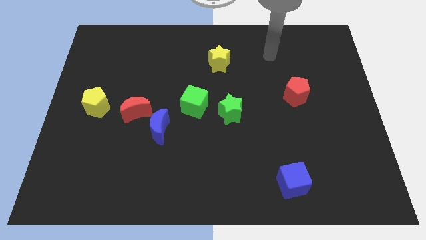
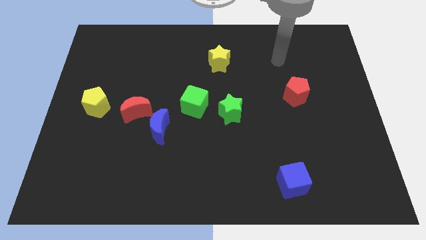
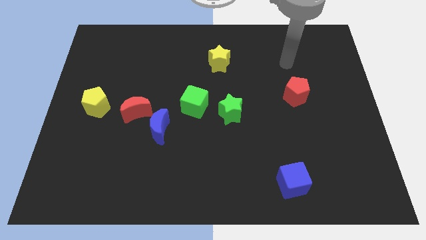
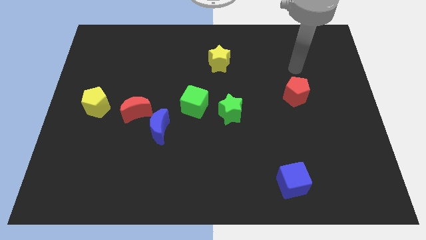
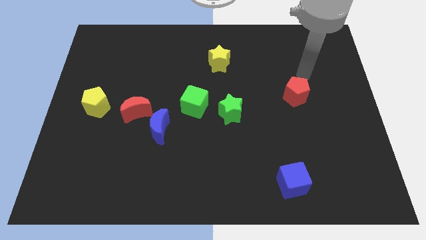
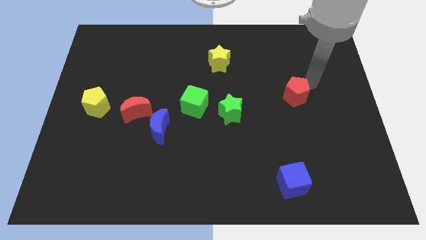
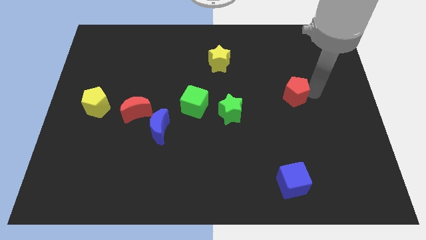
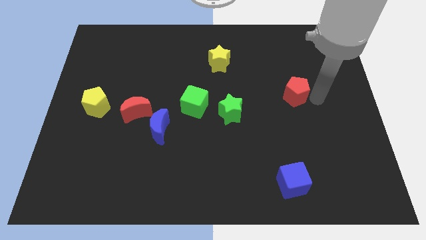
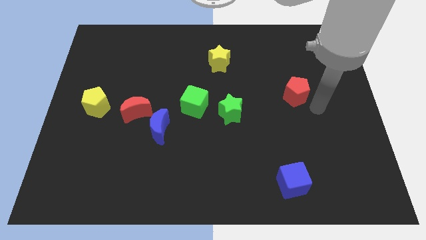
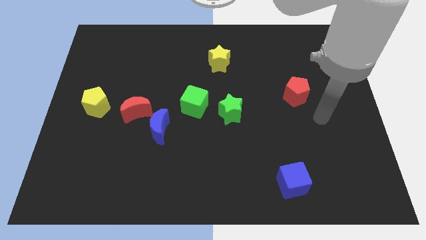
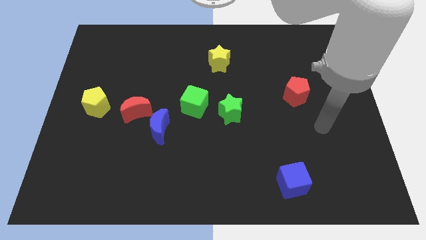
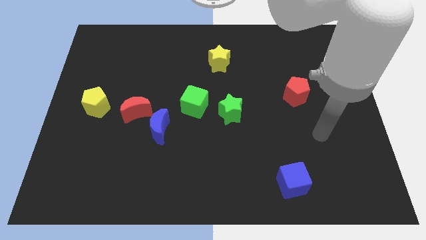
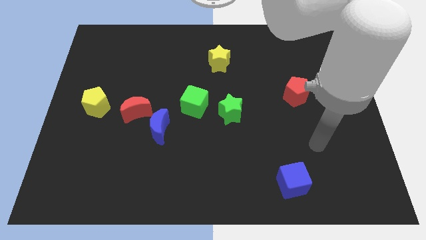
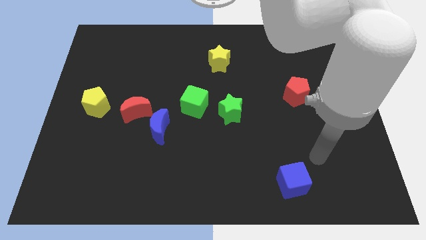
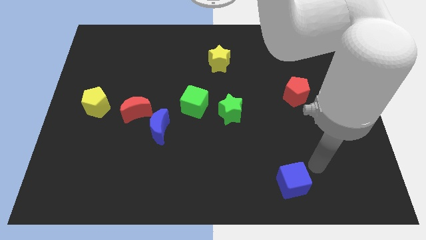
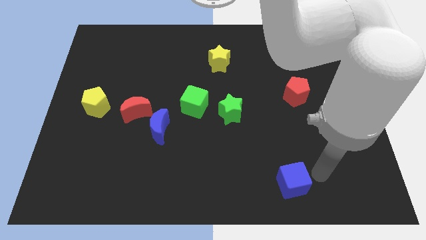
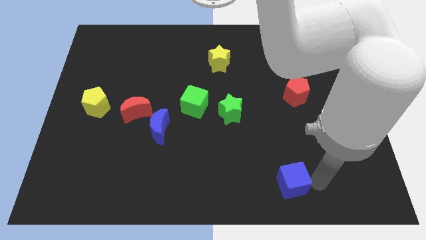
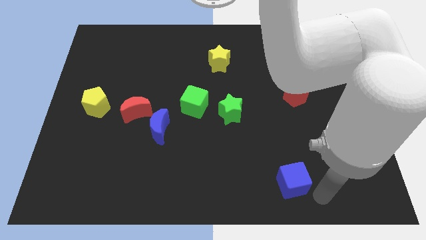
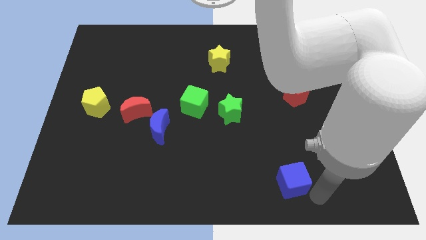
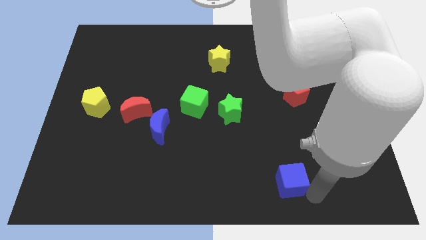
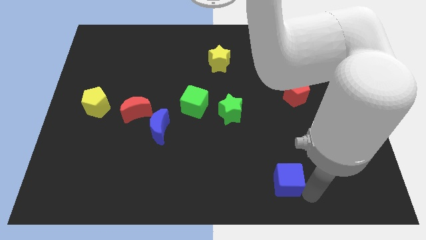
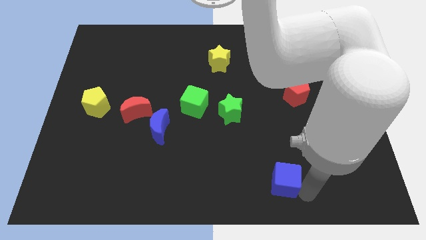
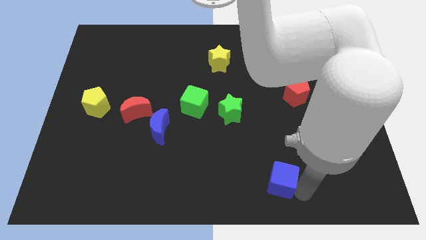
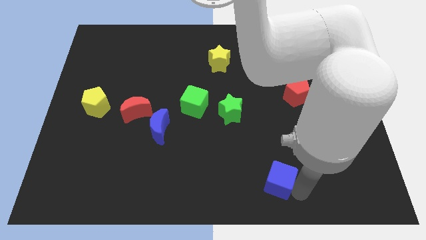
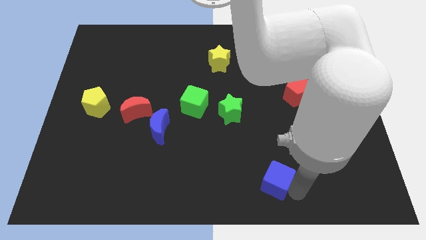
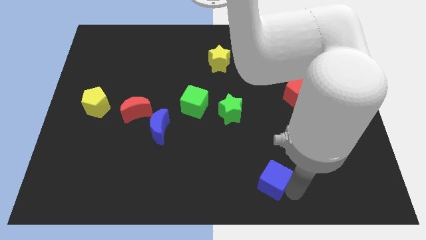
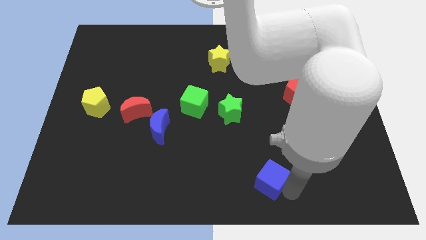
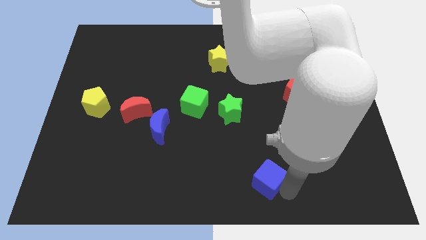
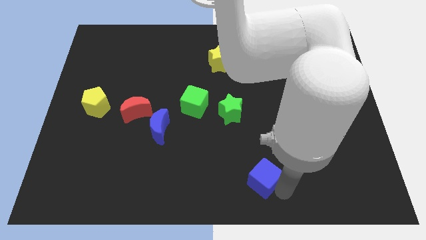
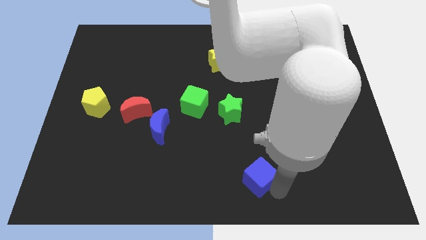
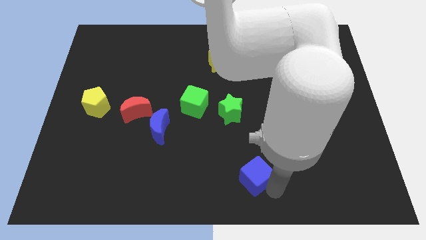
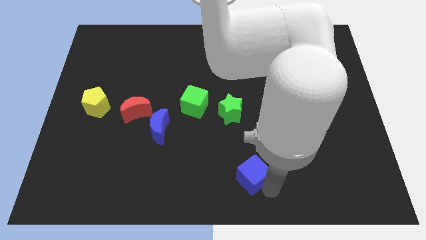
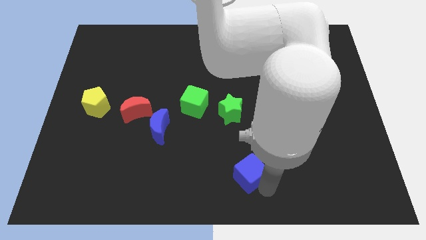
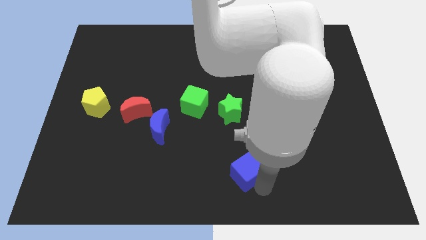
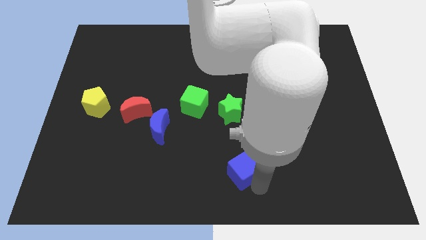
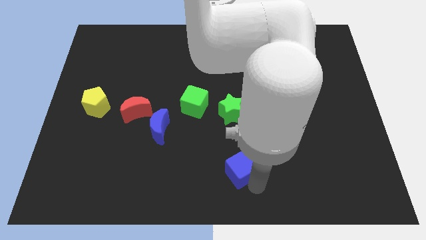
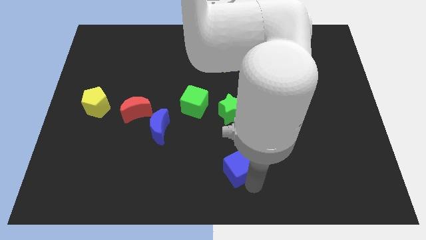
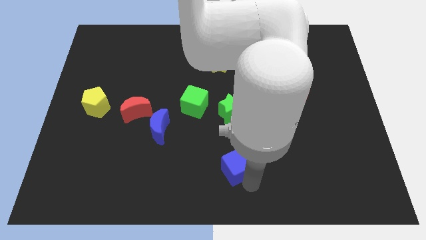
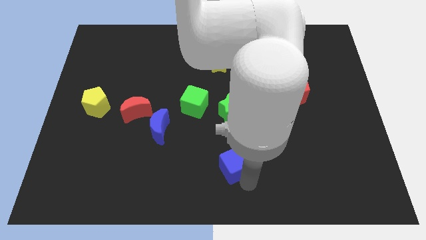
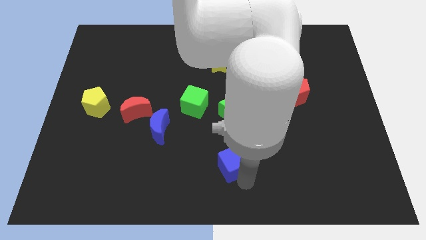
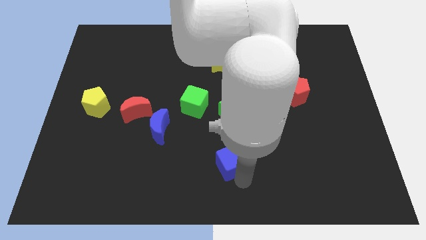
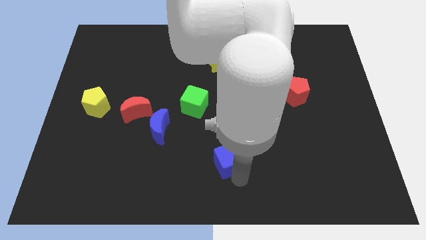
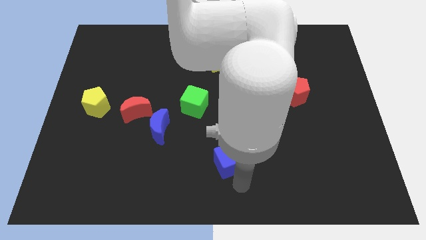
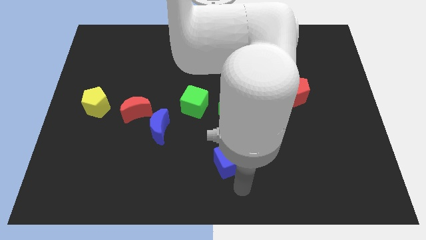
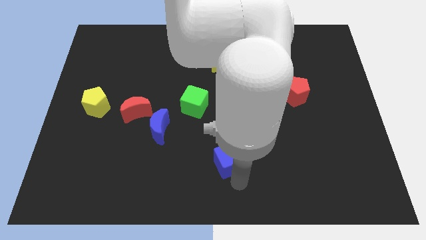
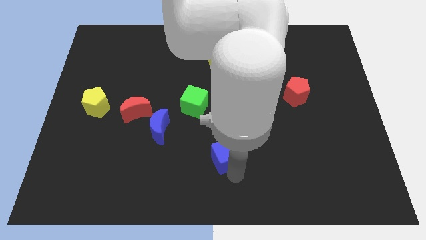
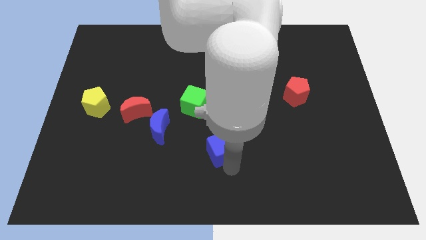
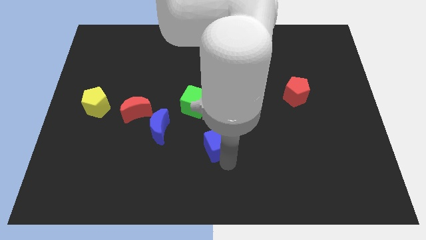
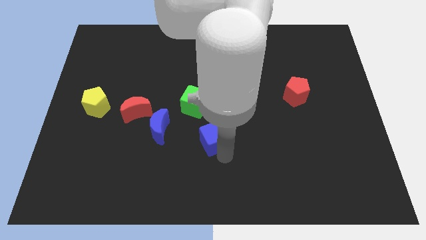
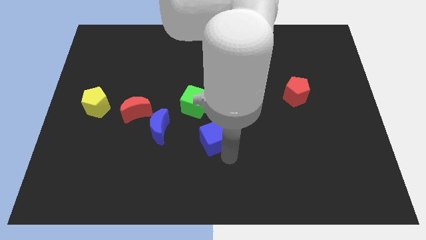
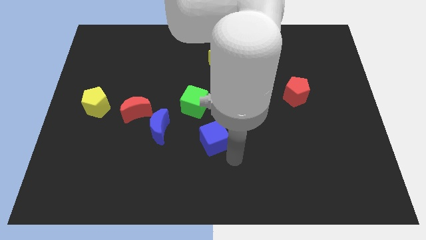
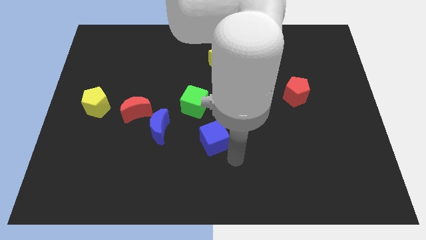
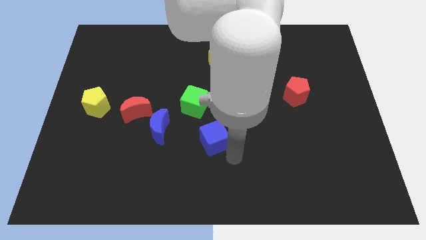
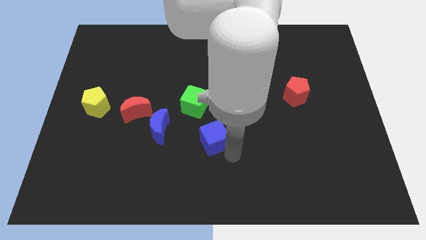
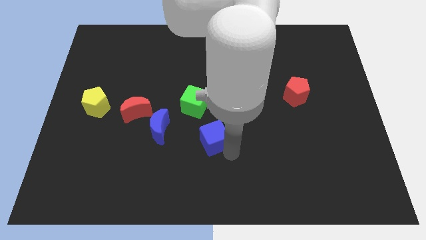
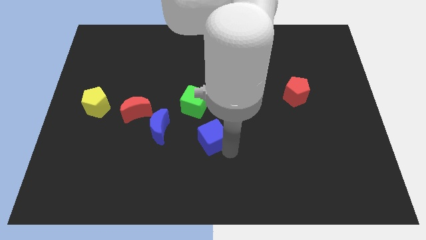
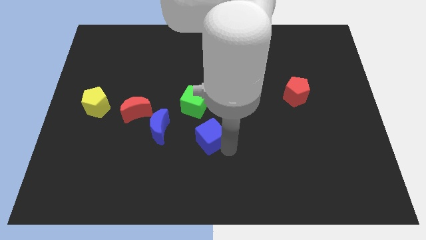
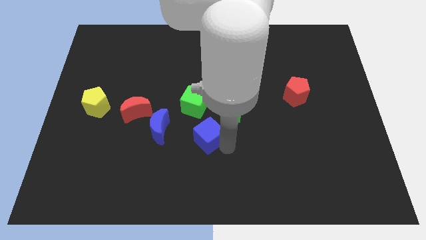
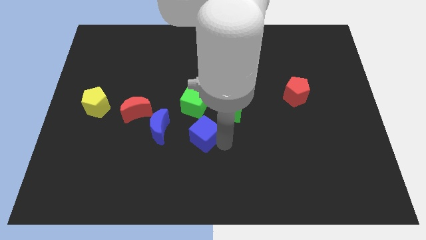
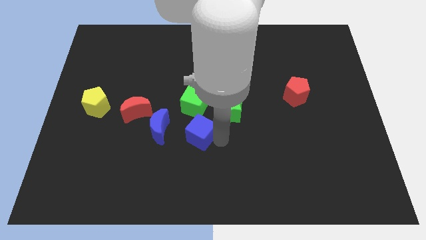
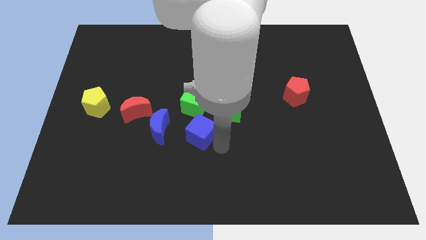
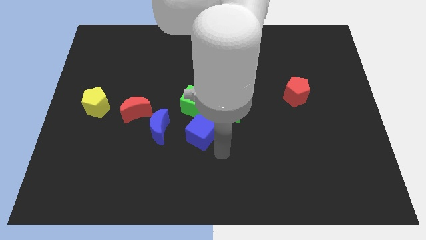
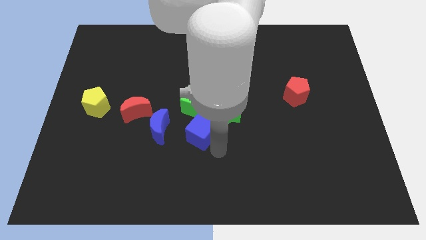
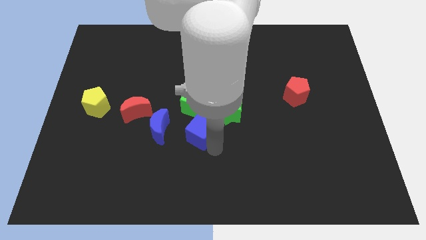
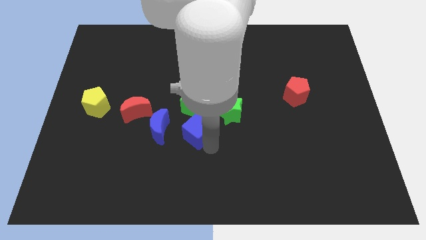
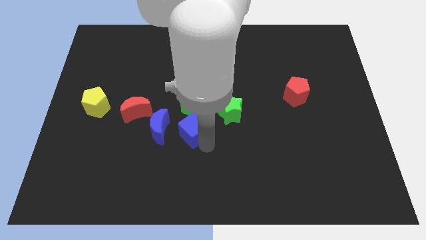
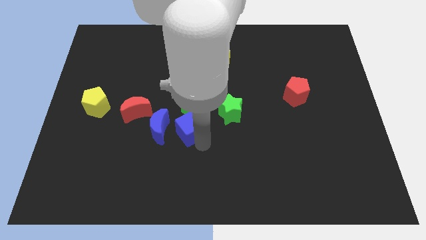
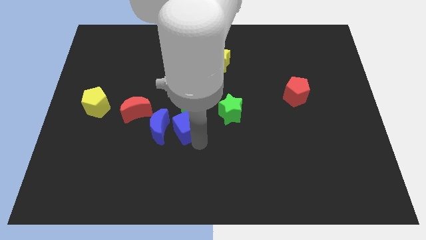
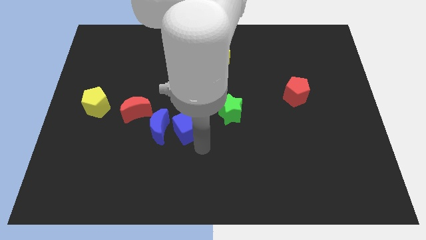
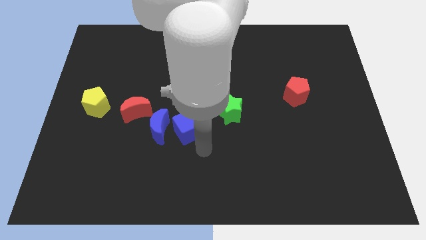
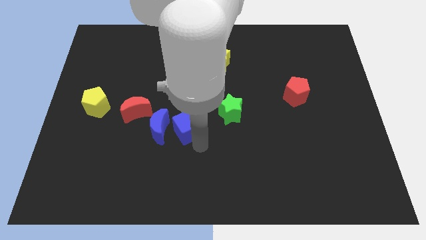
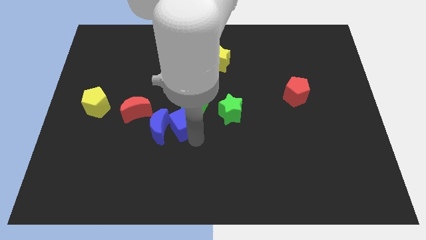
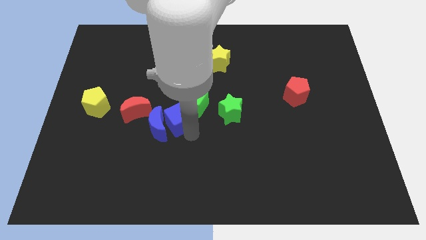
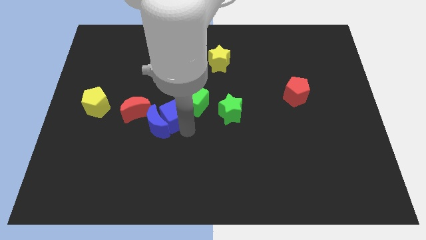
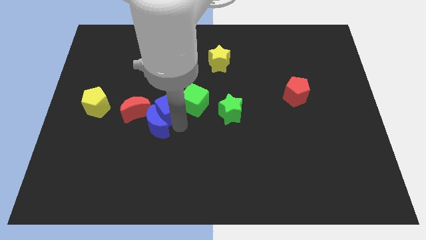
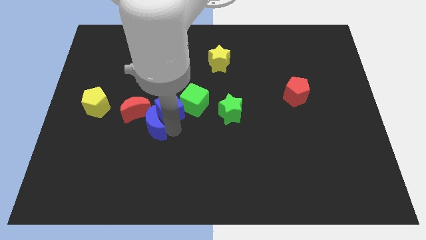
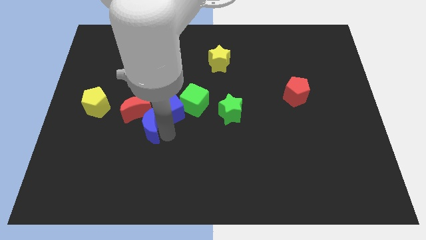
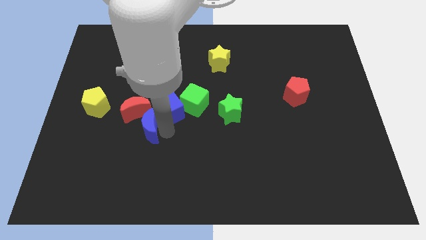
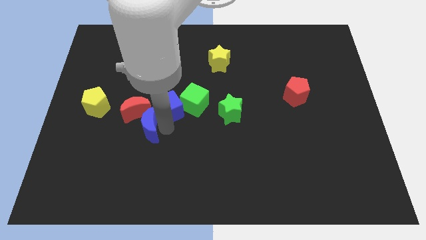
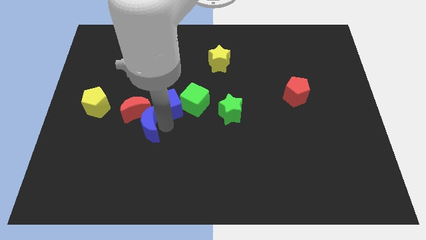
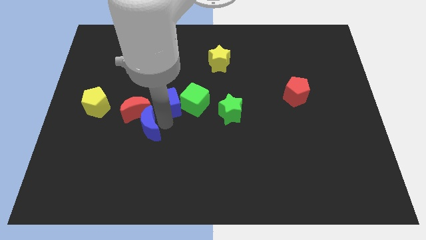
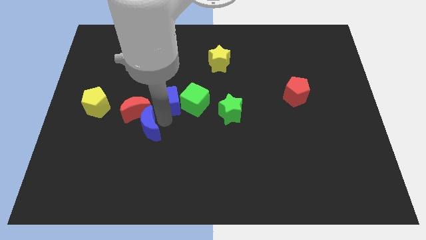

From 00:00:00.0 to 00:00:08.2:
slide the blue cube to the top left side of the green cube
